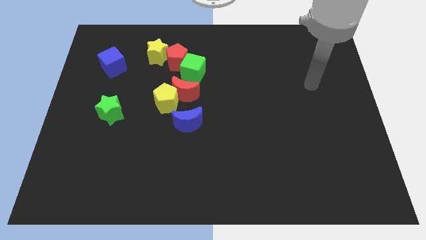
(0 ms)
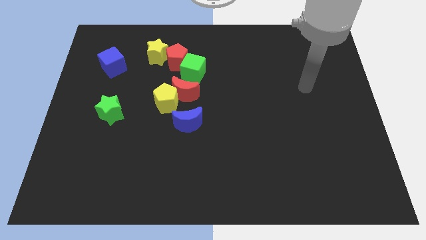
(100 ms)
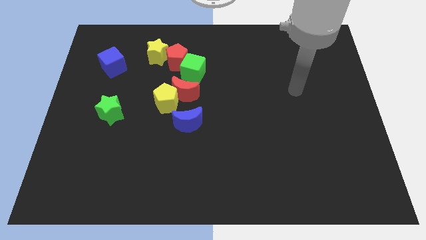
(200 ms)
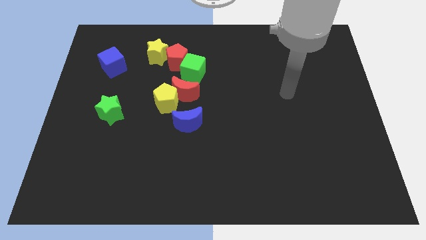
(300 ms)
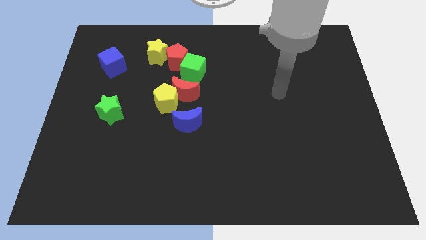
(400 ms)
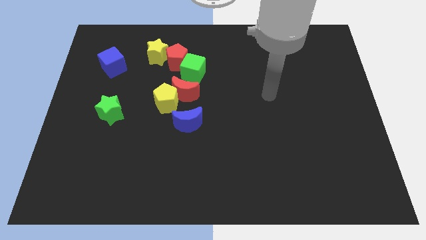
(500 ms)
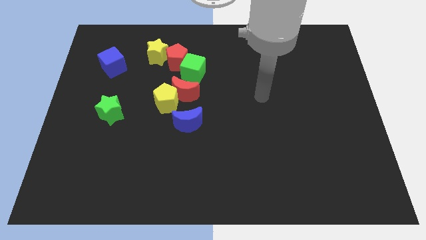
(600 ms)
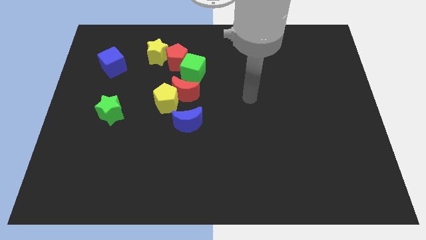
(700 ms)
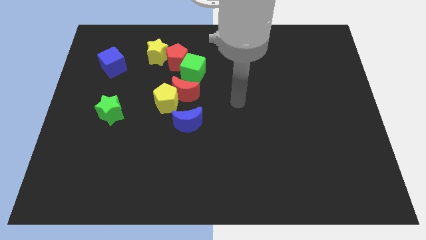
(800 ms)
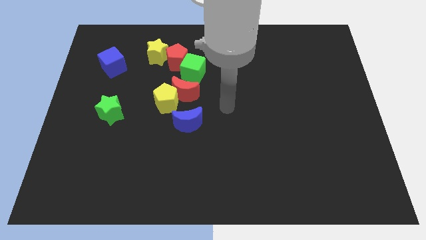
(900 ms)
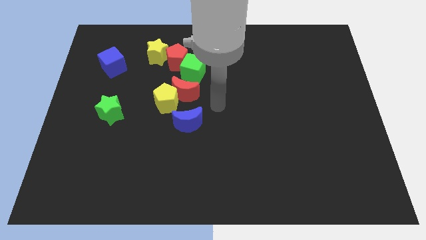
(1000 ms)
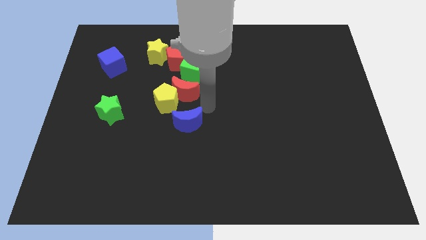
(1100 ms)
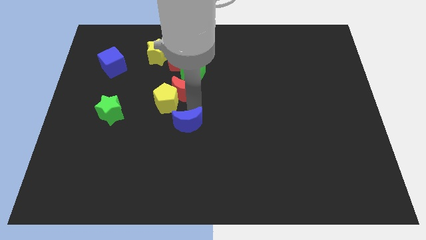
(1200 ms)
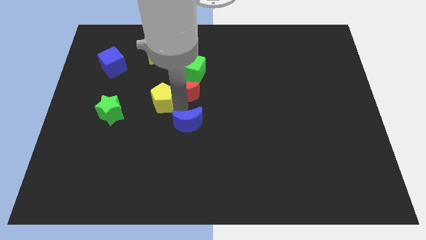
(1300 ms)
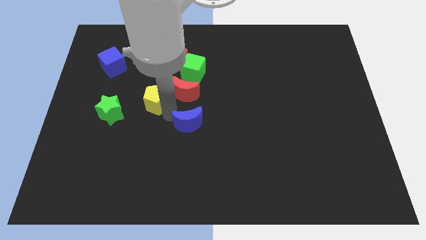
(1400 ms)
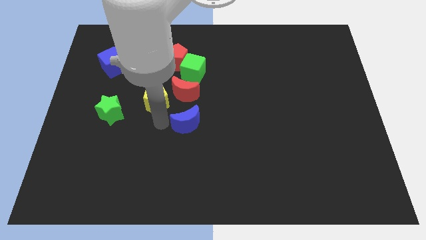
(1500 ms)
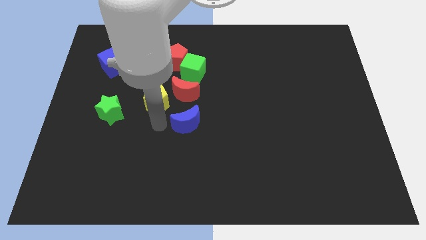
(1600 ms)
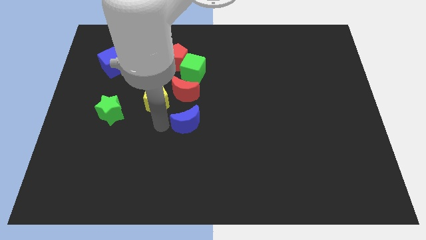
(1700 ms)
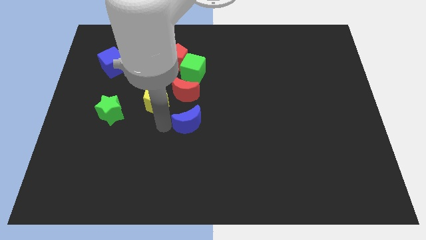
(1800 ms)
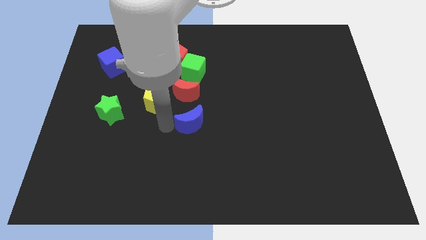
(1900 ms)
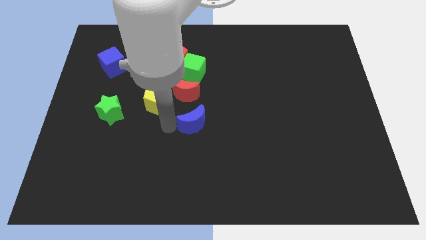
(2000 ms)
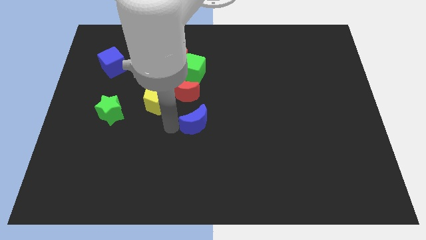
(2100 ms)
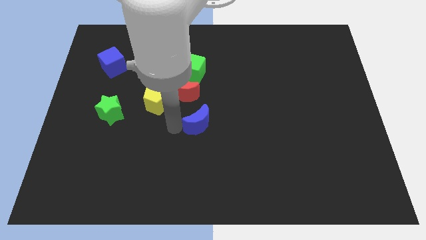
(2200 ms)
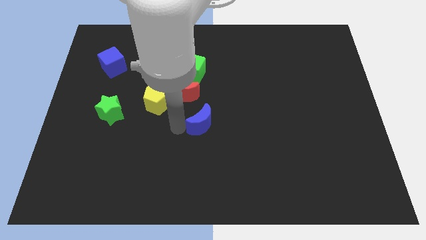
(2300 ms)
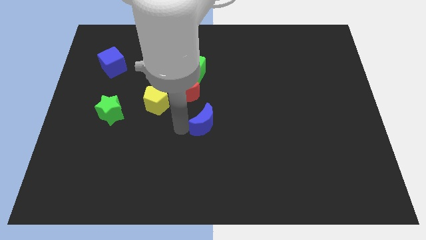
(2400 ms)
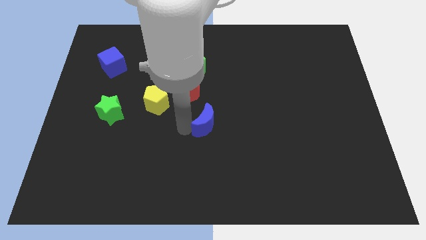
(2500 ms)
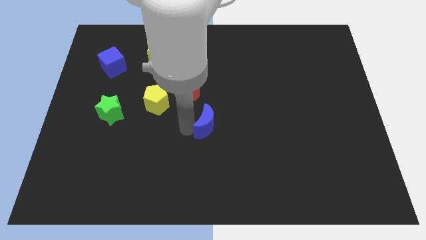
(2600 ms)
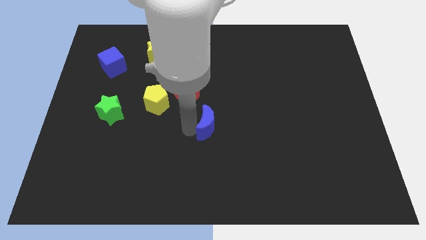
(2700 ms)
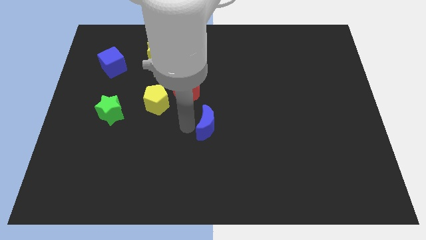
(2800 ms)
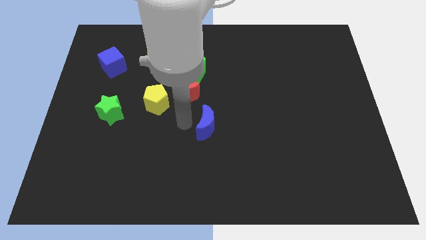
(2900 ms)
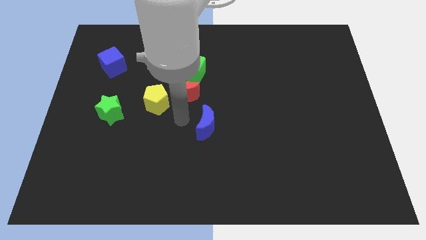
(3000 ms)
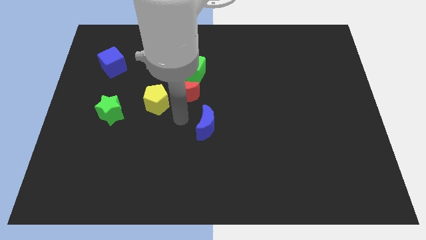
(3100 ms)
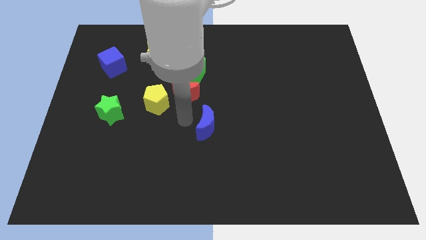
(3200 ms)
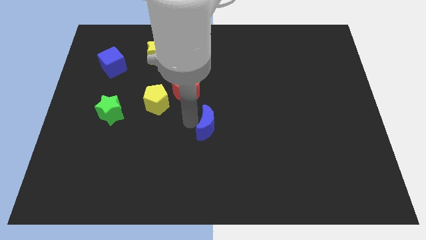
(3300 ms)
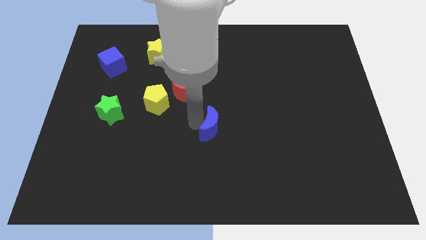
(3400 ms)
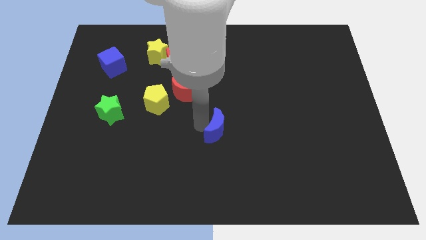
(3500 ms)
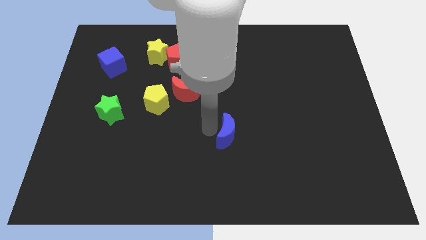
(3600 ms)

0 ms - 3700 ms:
slightly move the blue moon to the right

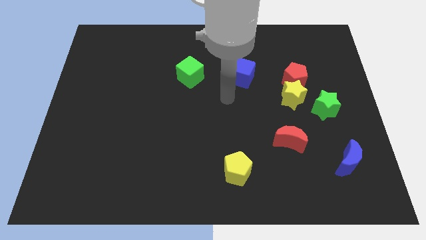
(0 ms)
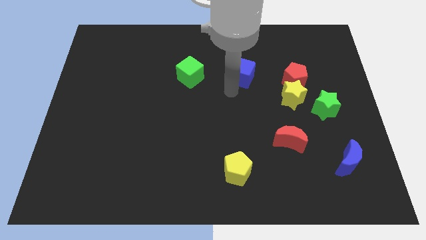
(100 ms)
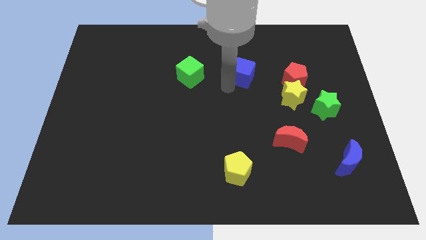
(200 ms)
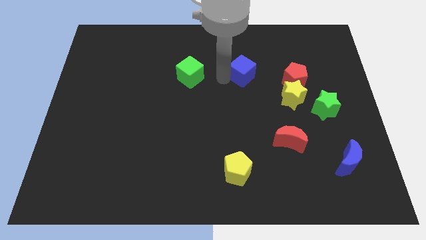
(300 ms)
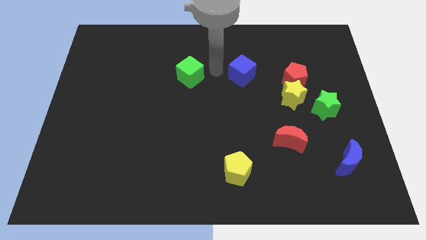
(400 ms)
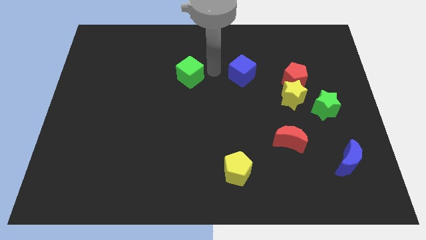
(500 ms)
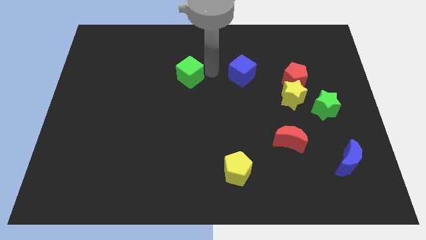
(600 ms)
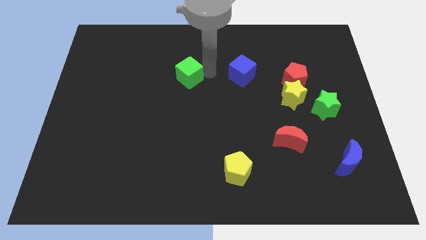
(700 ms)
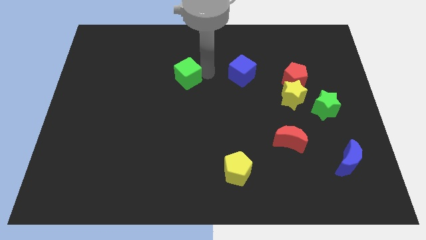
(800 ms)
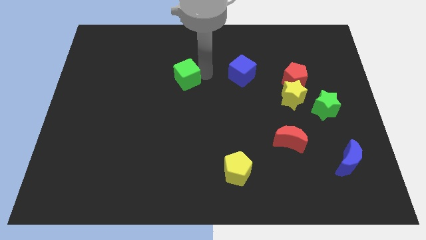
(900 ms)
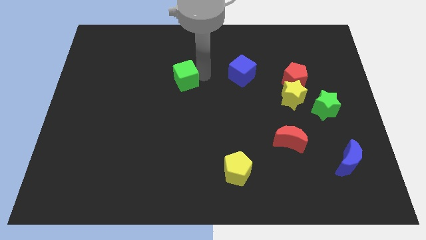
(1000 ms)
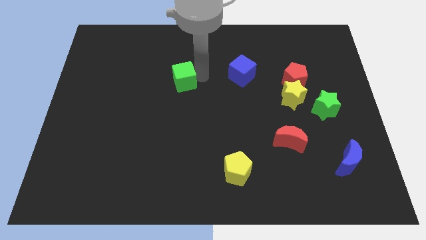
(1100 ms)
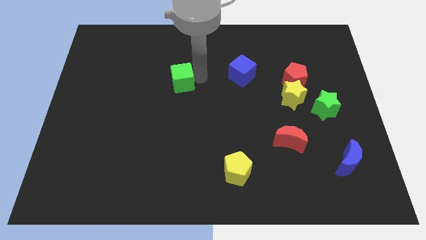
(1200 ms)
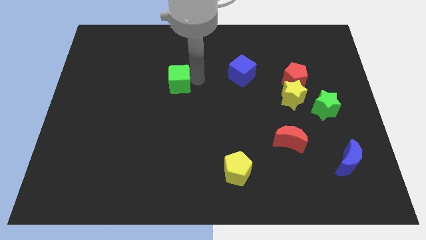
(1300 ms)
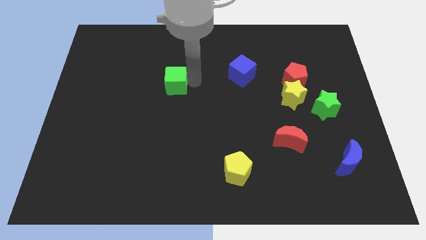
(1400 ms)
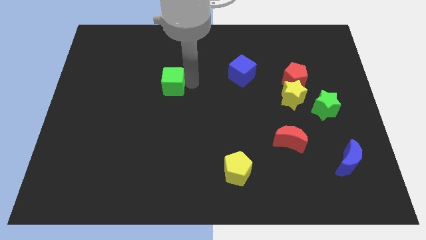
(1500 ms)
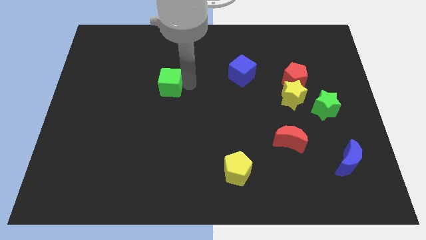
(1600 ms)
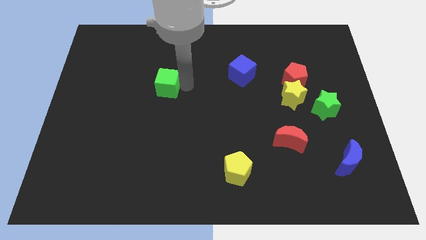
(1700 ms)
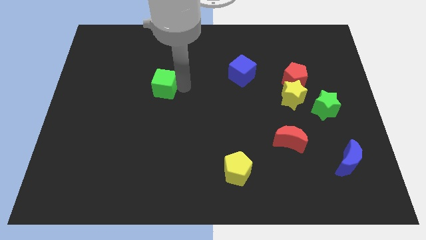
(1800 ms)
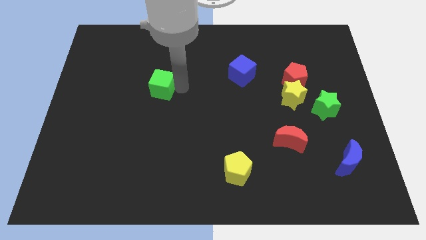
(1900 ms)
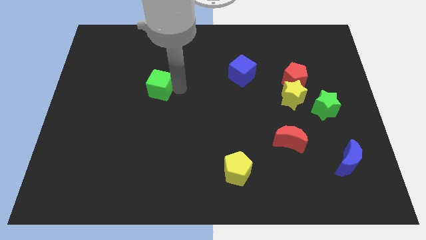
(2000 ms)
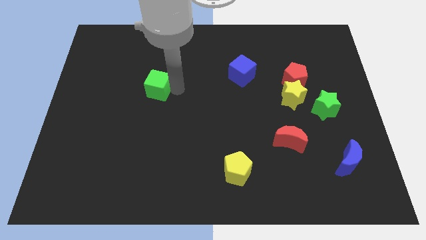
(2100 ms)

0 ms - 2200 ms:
move the green cube somewhat left

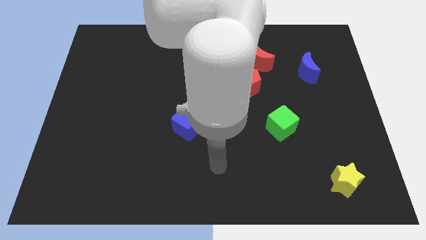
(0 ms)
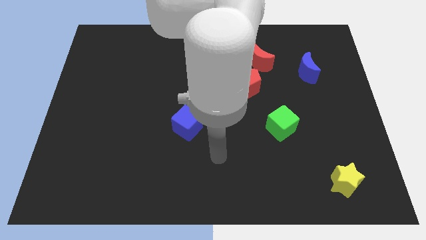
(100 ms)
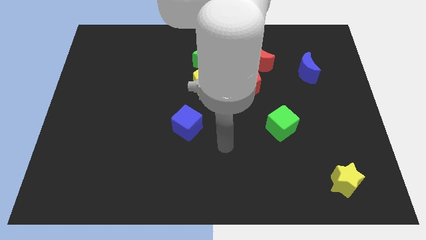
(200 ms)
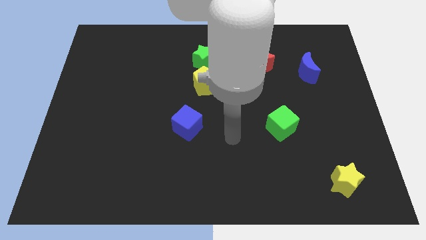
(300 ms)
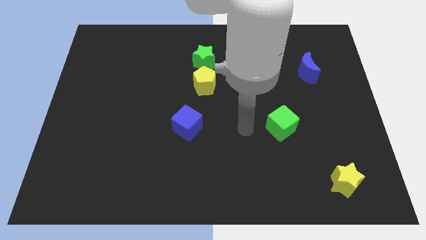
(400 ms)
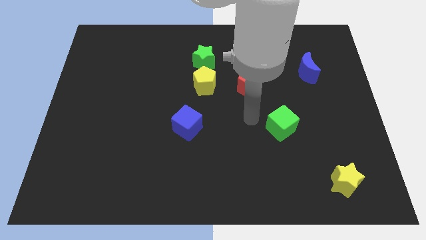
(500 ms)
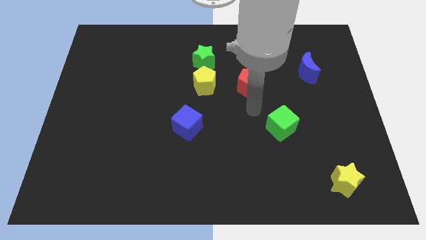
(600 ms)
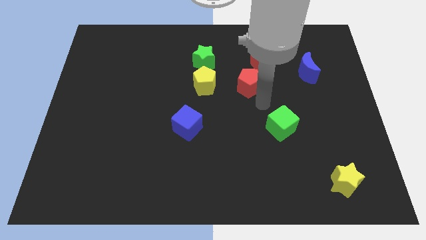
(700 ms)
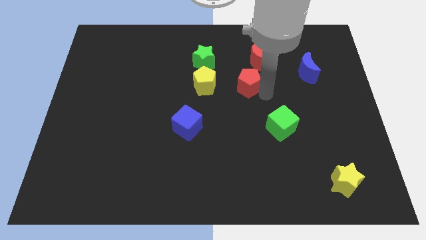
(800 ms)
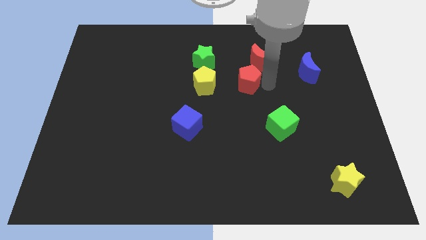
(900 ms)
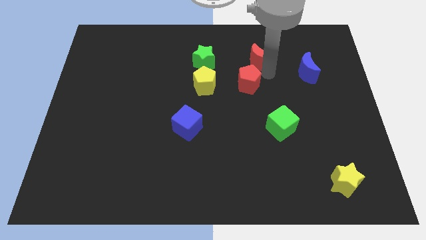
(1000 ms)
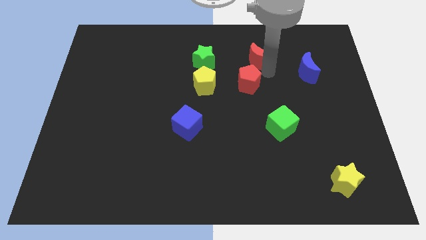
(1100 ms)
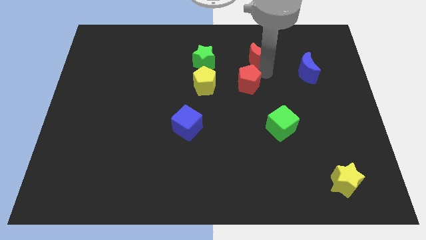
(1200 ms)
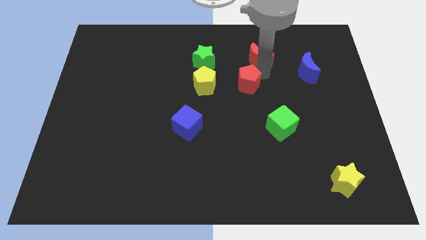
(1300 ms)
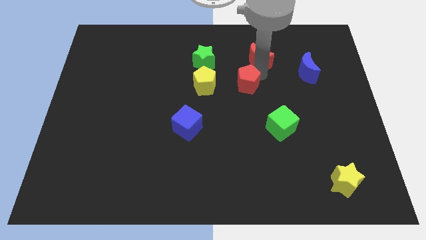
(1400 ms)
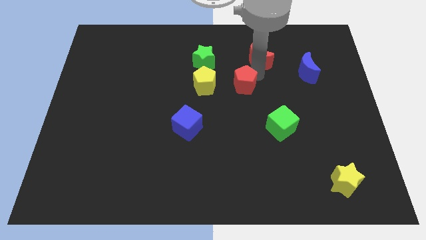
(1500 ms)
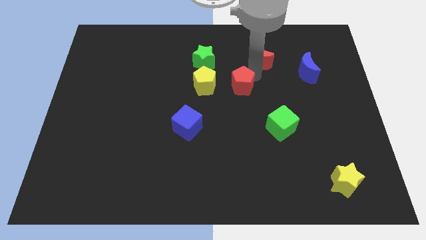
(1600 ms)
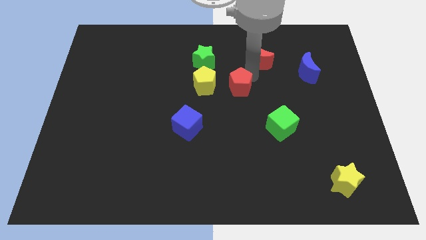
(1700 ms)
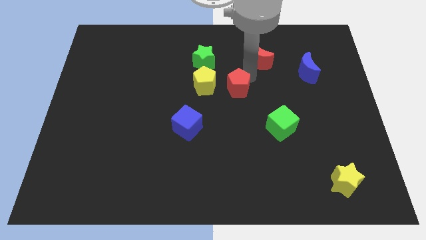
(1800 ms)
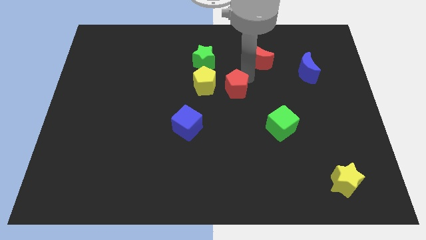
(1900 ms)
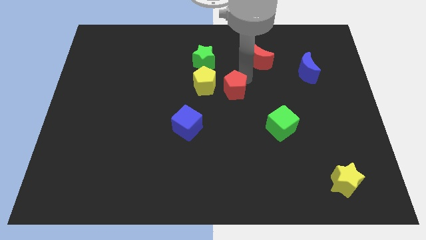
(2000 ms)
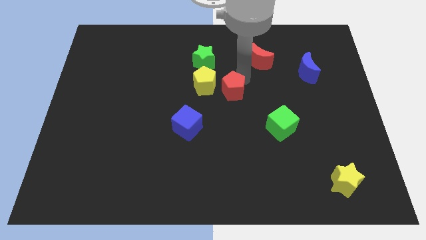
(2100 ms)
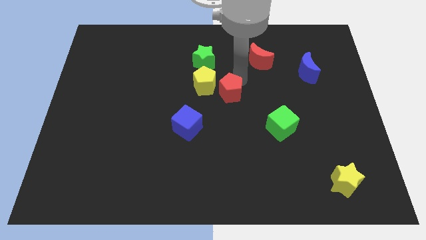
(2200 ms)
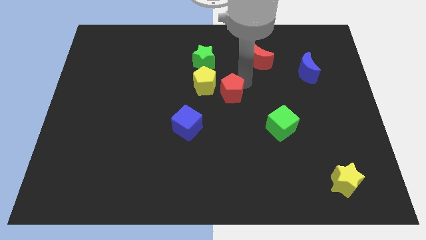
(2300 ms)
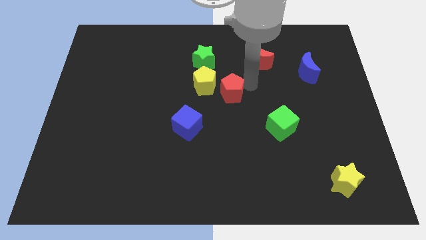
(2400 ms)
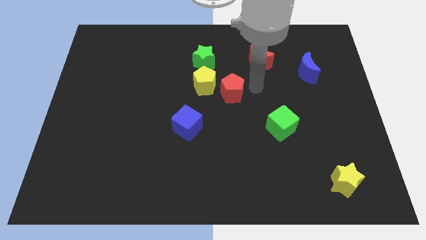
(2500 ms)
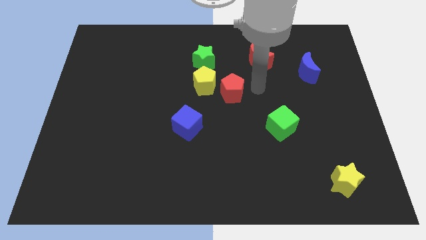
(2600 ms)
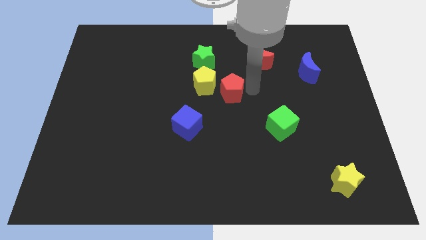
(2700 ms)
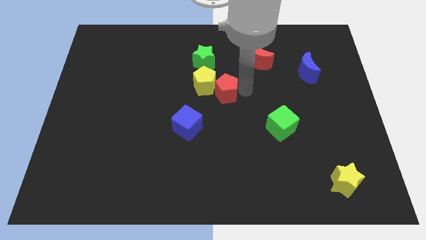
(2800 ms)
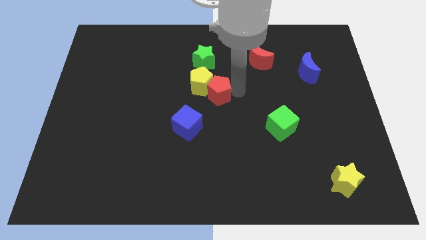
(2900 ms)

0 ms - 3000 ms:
slightly move the red pentagon to the left
